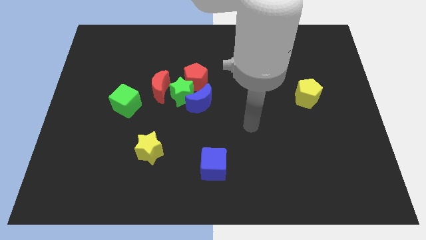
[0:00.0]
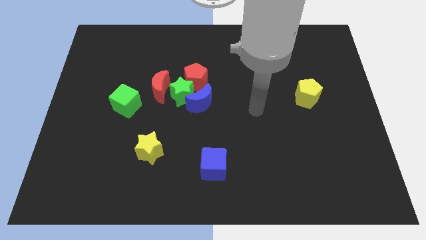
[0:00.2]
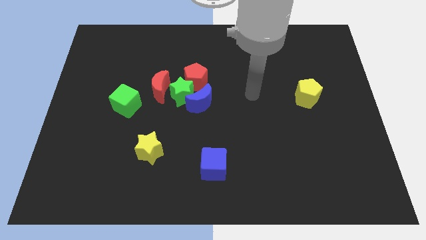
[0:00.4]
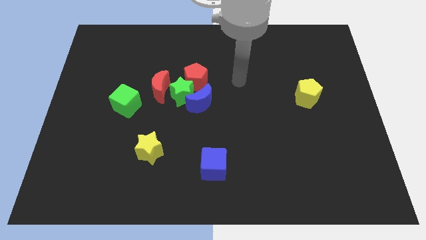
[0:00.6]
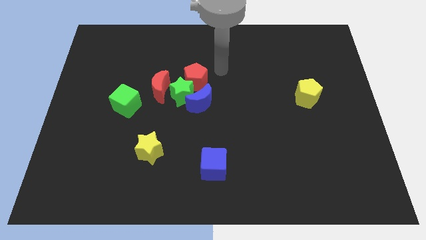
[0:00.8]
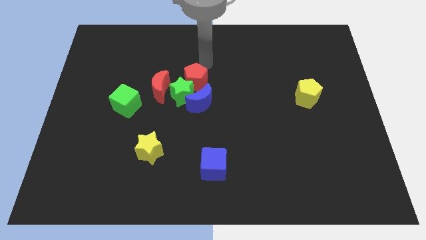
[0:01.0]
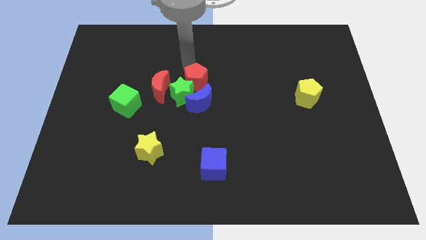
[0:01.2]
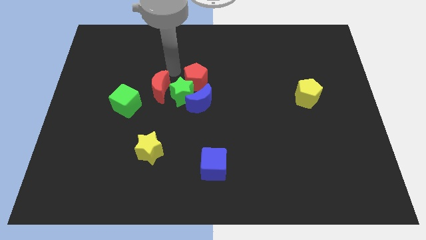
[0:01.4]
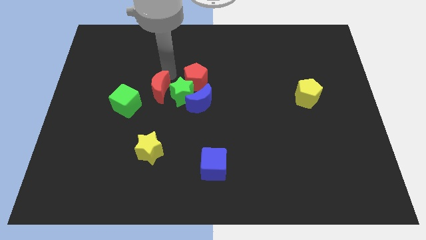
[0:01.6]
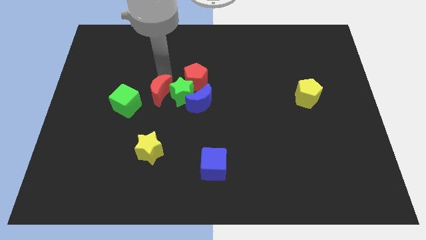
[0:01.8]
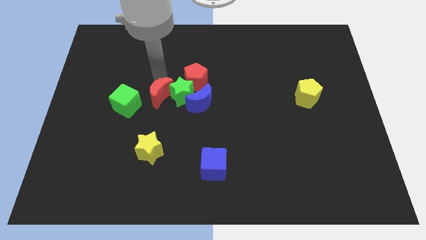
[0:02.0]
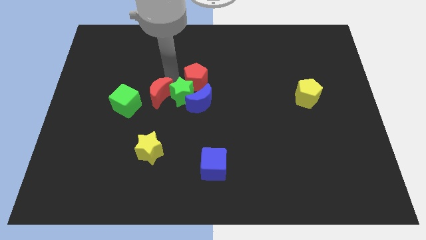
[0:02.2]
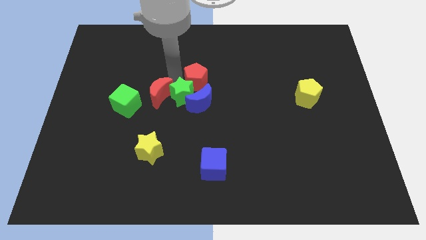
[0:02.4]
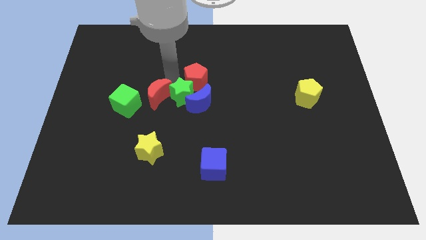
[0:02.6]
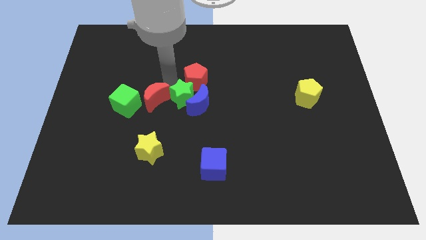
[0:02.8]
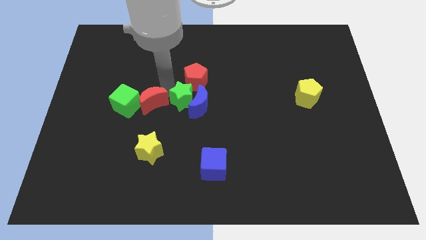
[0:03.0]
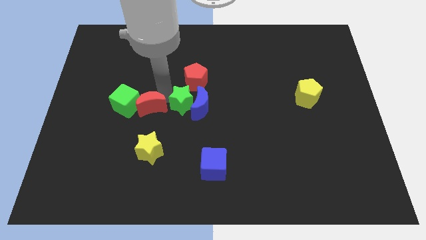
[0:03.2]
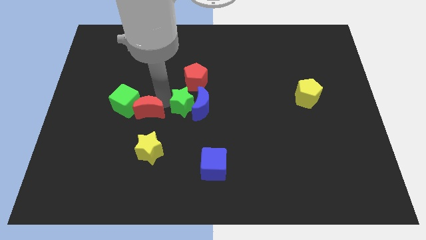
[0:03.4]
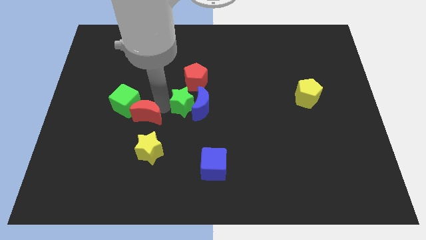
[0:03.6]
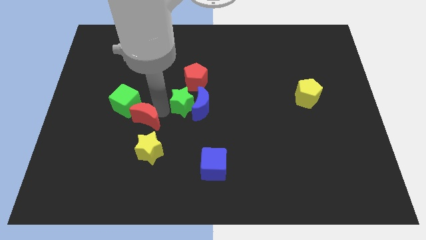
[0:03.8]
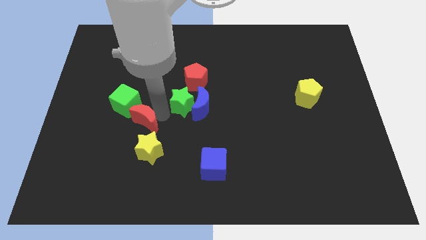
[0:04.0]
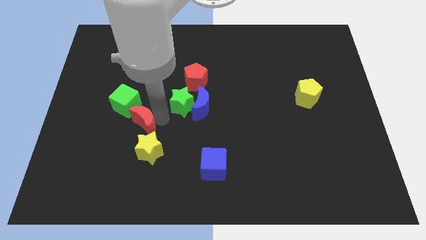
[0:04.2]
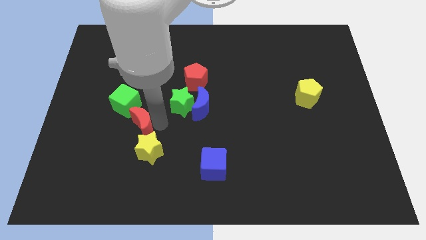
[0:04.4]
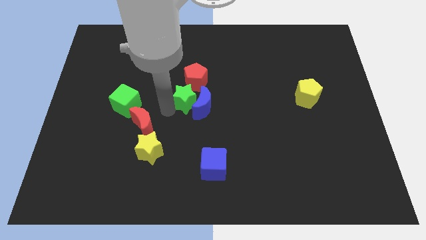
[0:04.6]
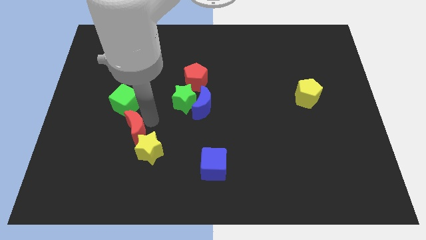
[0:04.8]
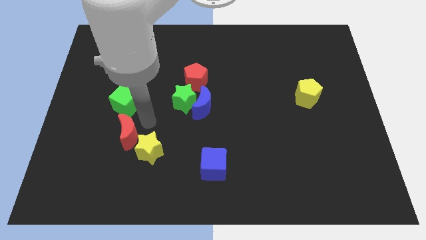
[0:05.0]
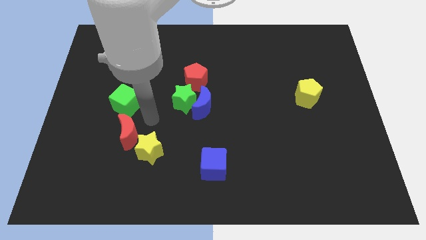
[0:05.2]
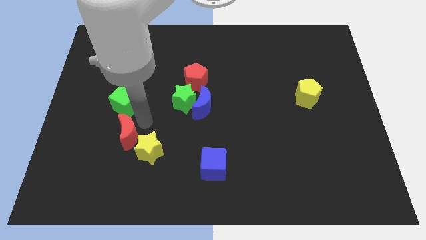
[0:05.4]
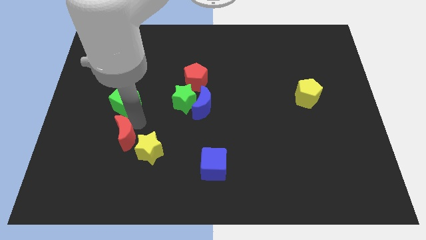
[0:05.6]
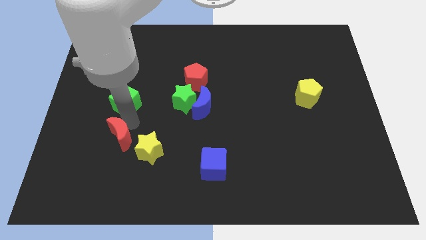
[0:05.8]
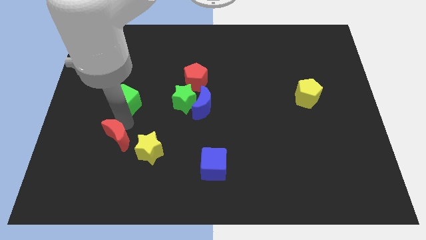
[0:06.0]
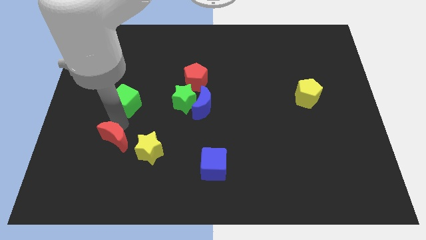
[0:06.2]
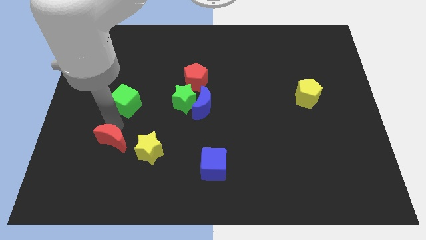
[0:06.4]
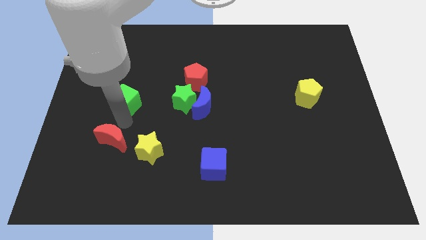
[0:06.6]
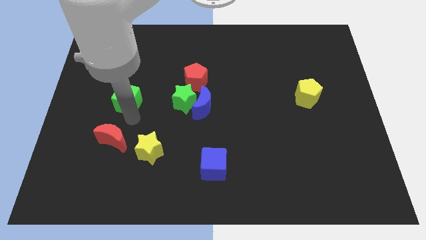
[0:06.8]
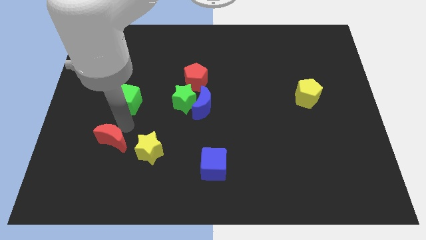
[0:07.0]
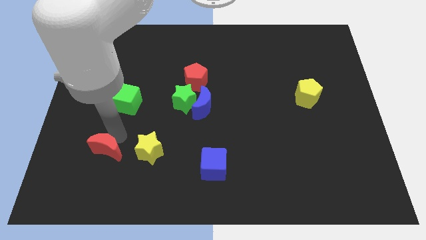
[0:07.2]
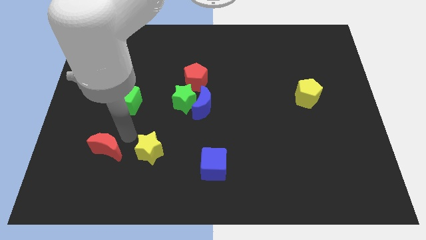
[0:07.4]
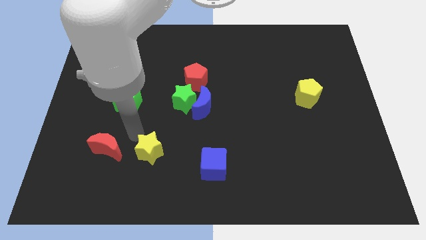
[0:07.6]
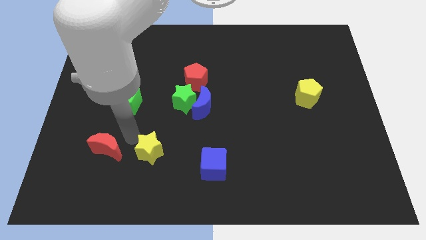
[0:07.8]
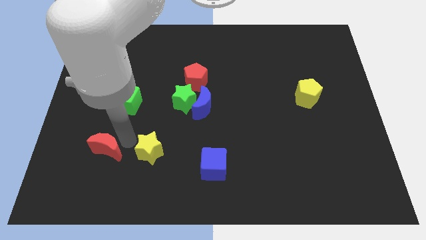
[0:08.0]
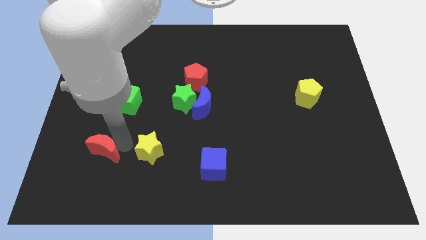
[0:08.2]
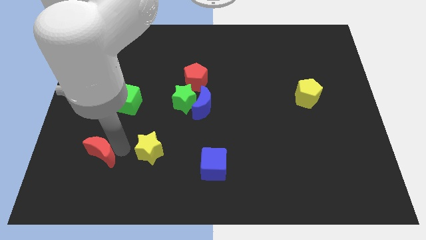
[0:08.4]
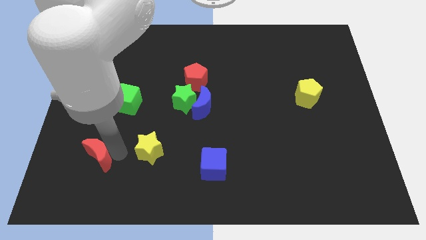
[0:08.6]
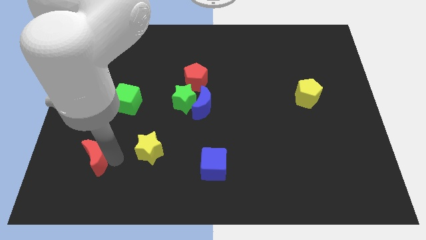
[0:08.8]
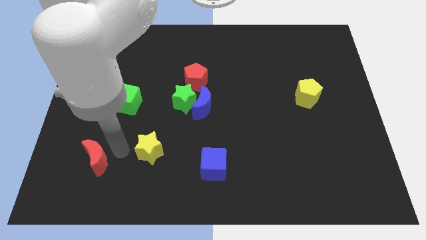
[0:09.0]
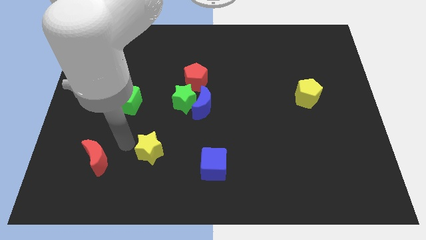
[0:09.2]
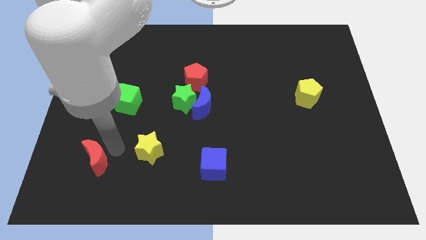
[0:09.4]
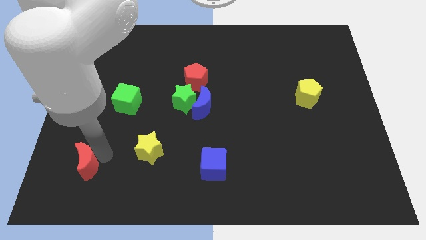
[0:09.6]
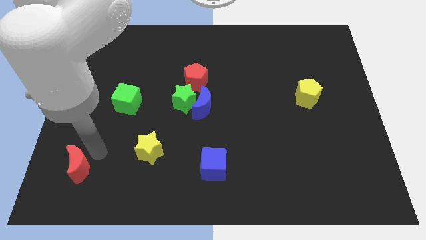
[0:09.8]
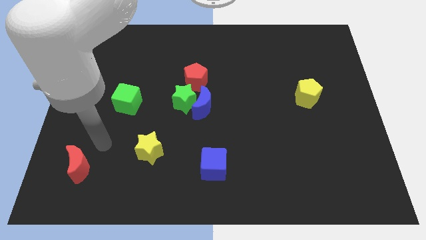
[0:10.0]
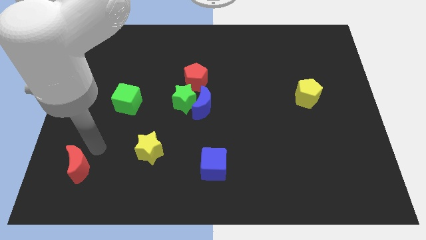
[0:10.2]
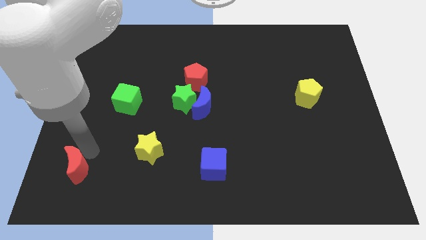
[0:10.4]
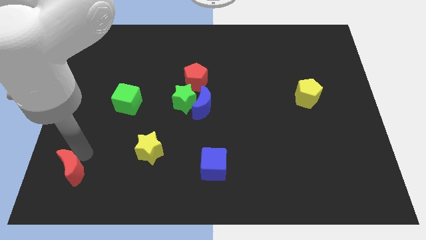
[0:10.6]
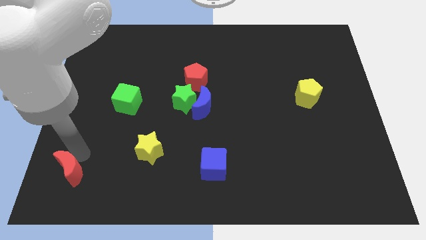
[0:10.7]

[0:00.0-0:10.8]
move the red moon to the bottom left of the board

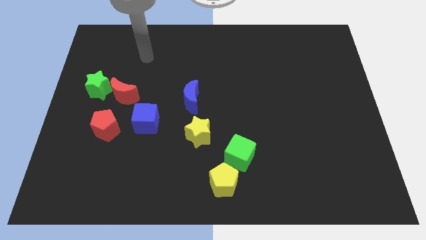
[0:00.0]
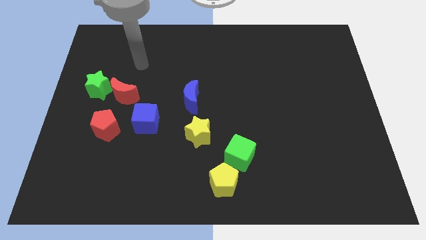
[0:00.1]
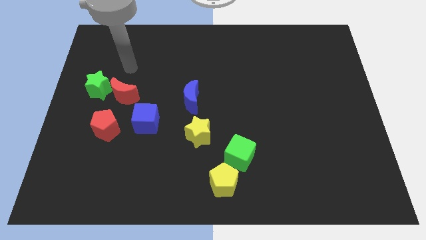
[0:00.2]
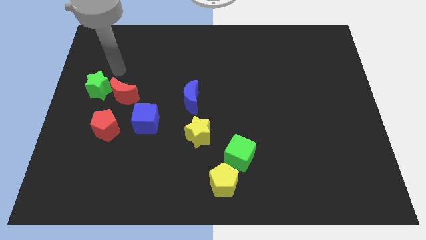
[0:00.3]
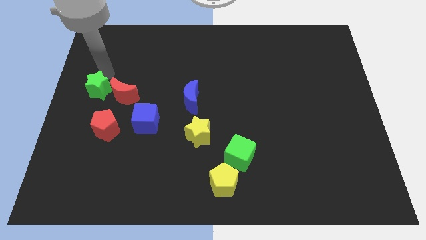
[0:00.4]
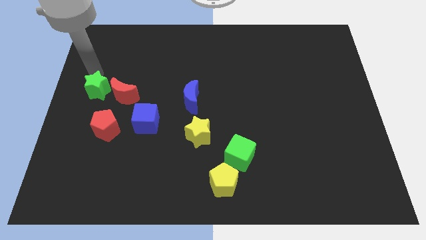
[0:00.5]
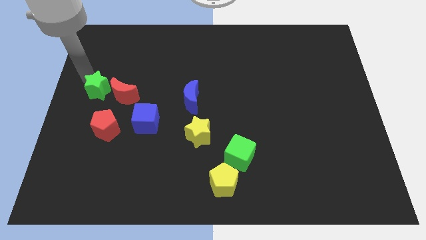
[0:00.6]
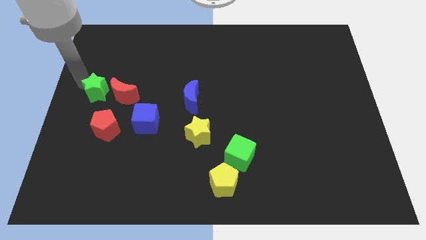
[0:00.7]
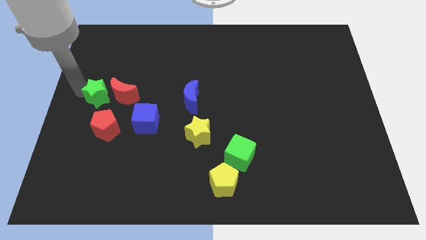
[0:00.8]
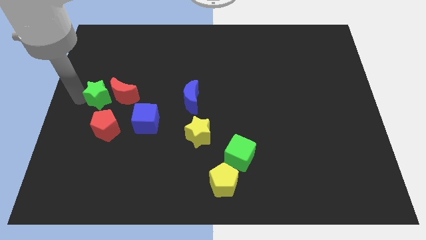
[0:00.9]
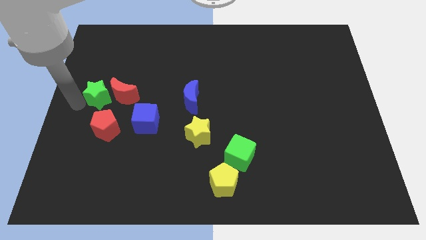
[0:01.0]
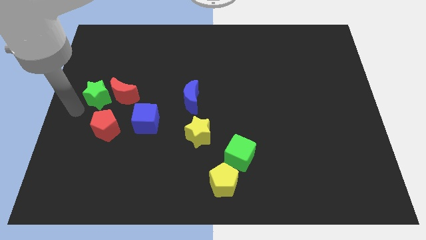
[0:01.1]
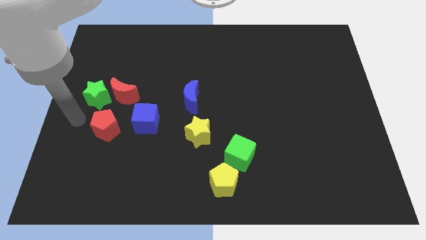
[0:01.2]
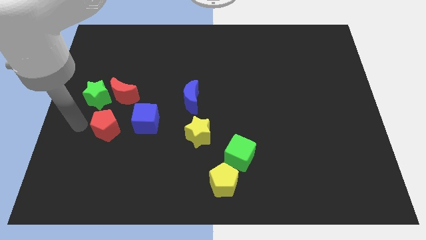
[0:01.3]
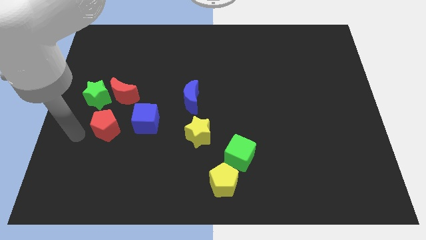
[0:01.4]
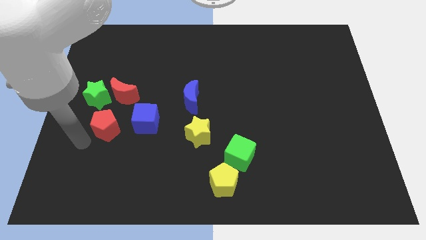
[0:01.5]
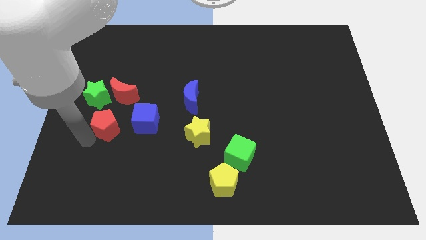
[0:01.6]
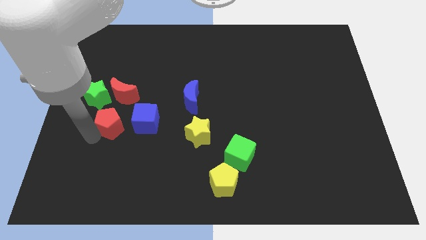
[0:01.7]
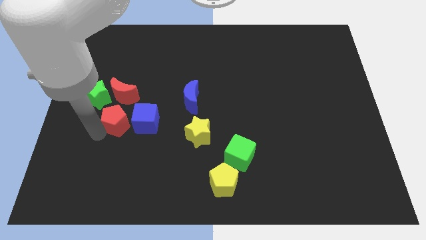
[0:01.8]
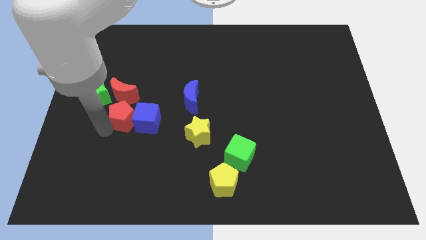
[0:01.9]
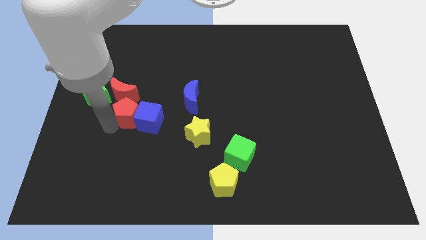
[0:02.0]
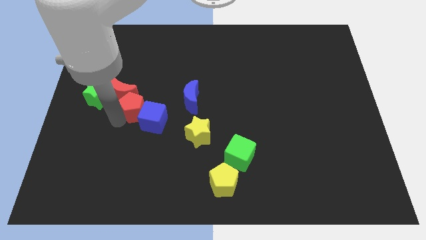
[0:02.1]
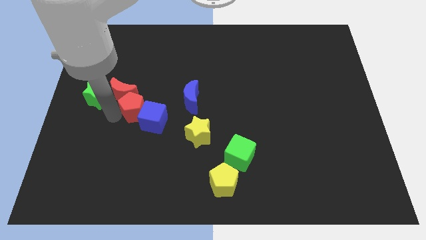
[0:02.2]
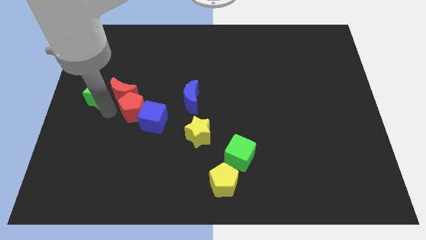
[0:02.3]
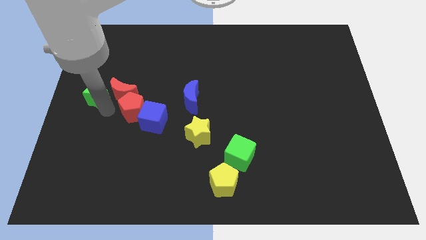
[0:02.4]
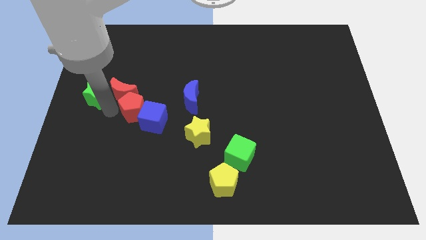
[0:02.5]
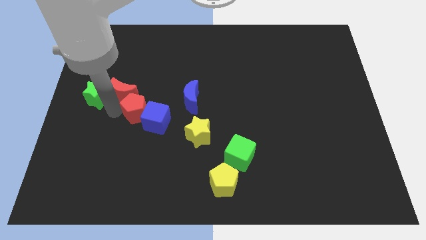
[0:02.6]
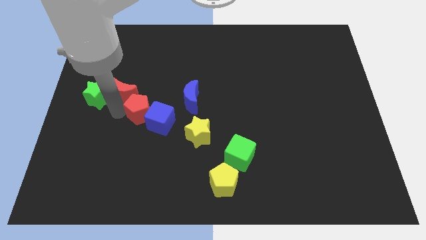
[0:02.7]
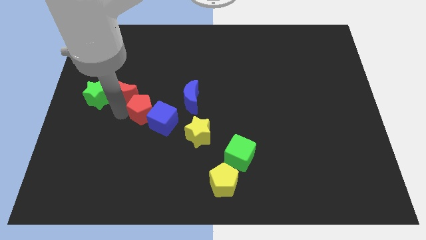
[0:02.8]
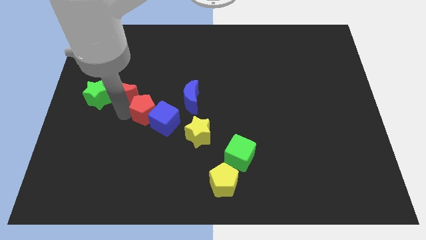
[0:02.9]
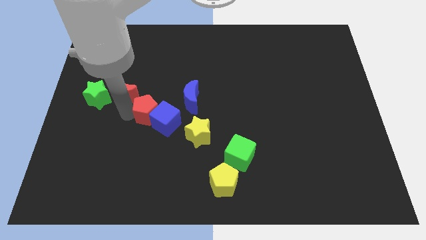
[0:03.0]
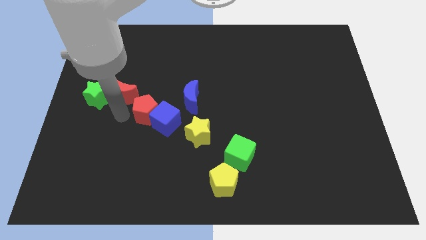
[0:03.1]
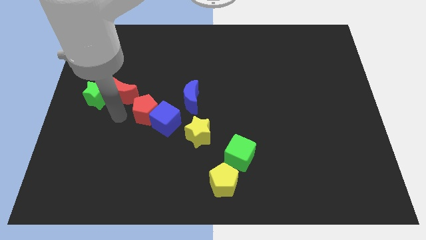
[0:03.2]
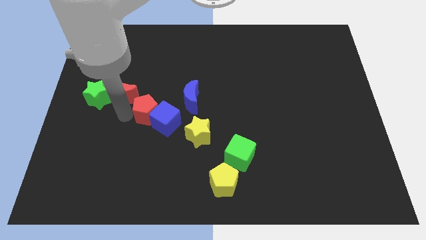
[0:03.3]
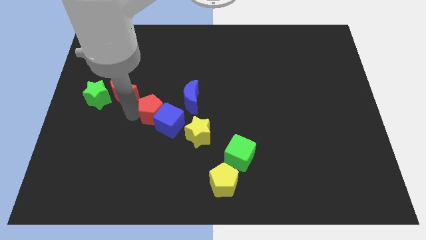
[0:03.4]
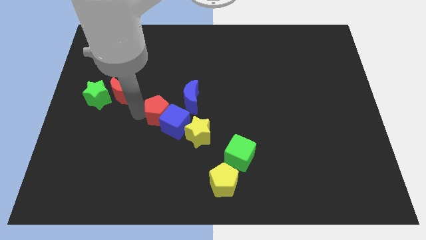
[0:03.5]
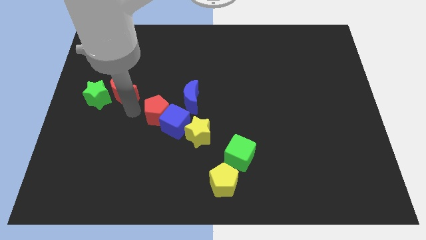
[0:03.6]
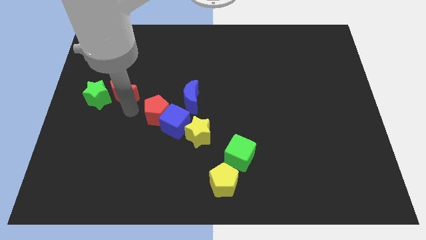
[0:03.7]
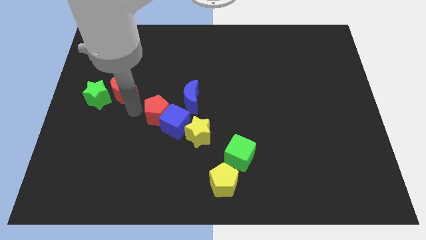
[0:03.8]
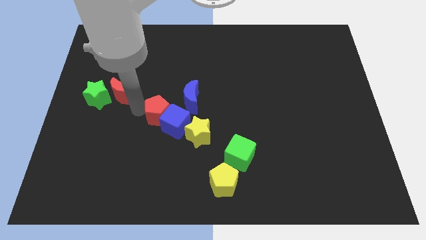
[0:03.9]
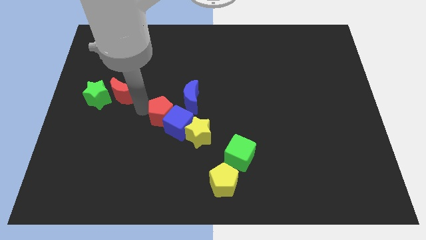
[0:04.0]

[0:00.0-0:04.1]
push the red pentagon to the center
